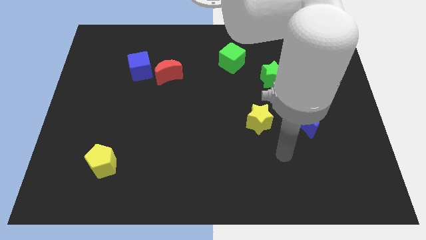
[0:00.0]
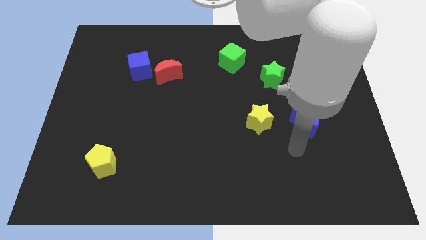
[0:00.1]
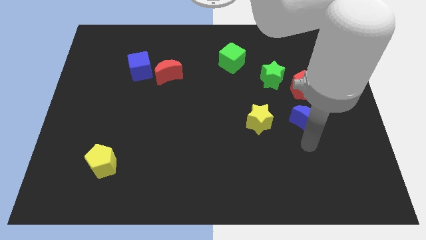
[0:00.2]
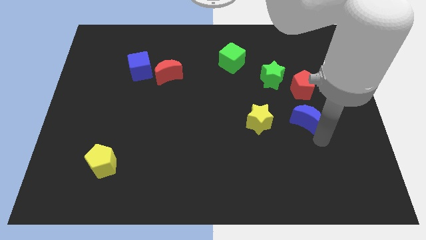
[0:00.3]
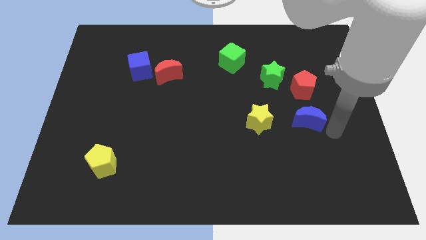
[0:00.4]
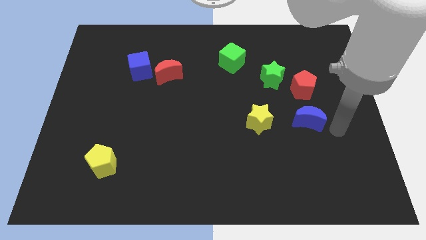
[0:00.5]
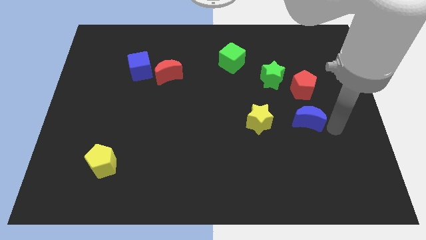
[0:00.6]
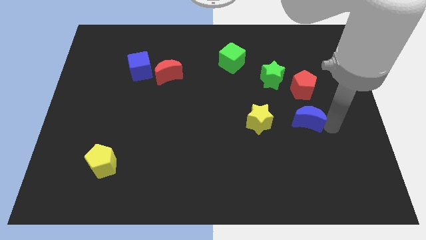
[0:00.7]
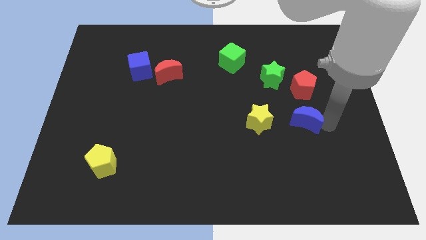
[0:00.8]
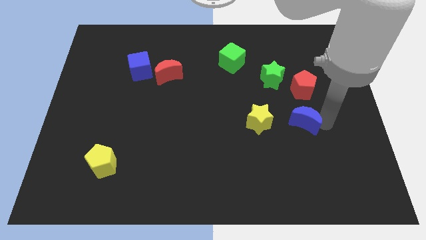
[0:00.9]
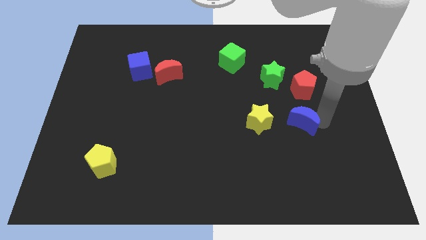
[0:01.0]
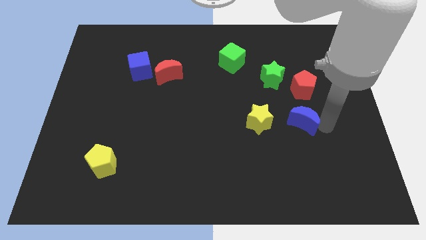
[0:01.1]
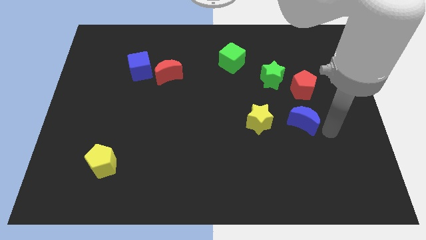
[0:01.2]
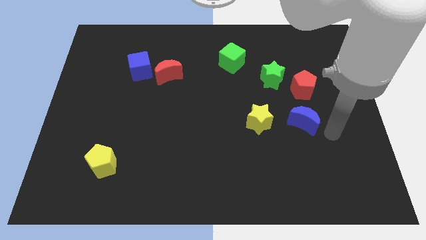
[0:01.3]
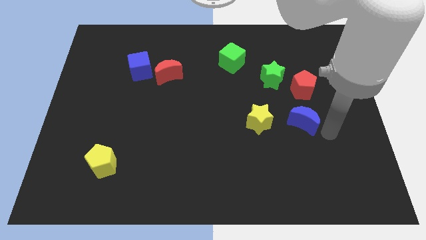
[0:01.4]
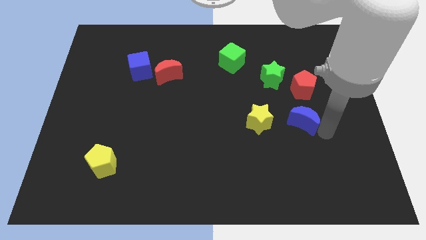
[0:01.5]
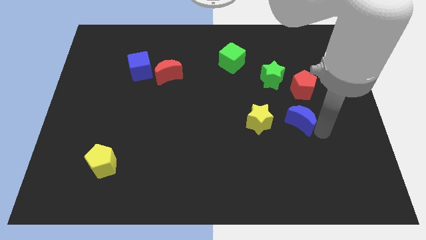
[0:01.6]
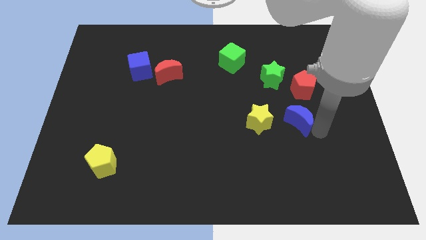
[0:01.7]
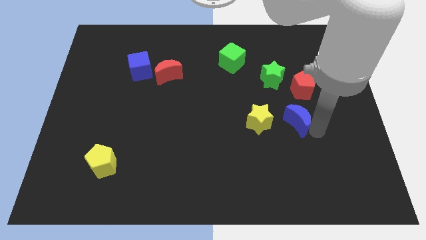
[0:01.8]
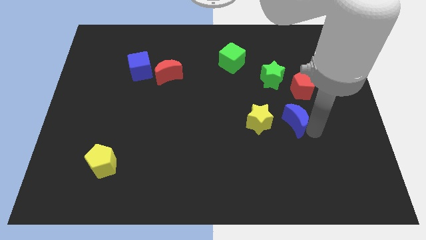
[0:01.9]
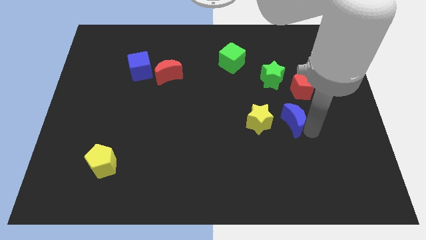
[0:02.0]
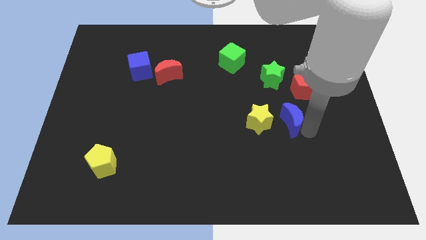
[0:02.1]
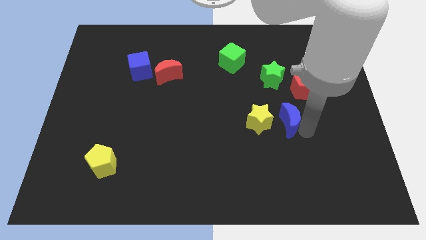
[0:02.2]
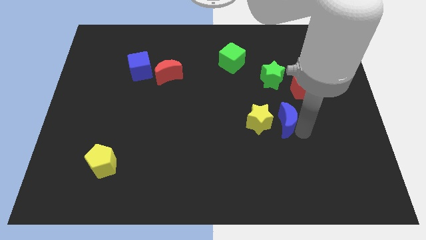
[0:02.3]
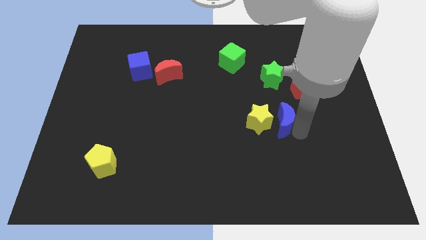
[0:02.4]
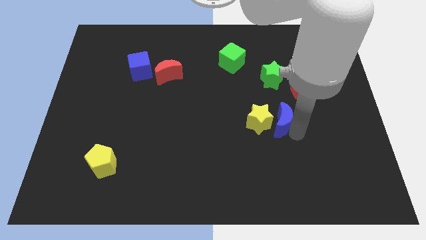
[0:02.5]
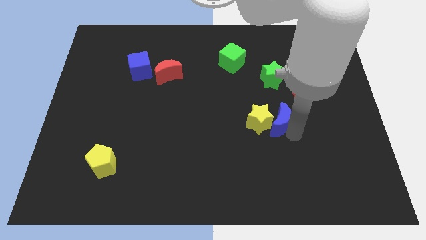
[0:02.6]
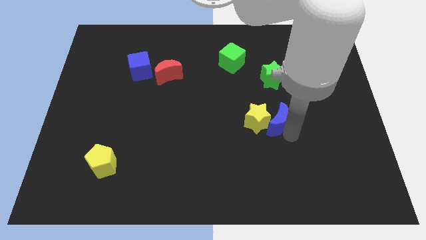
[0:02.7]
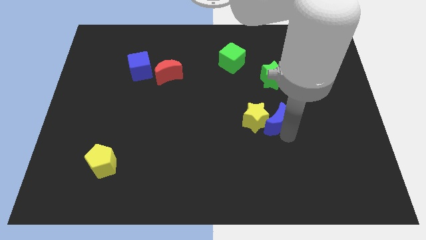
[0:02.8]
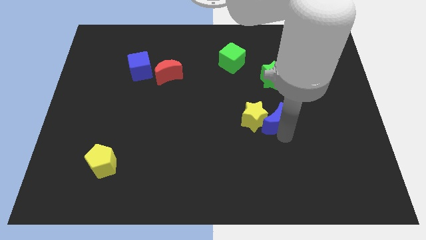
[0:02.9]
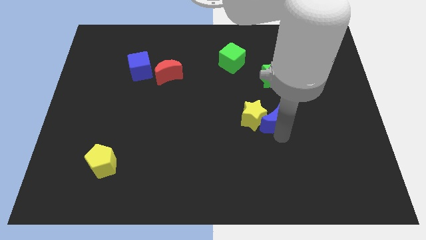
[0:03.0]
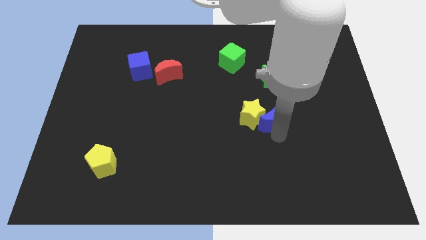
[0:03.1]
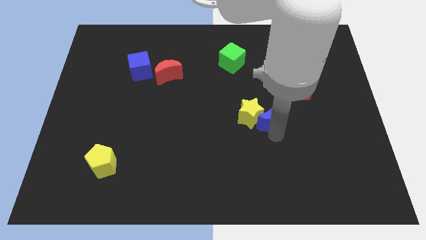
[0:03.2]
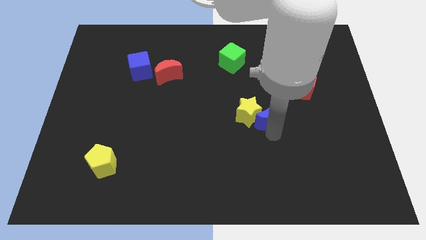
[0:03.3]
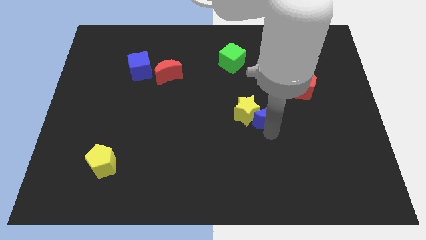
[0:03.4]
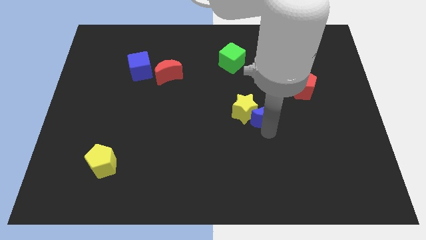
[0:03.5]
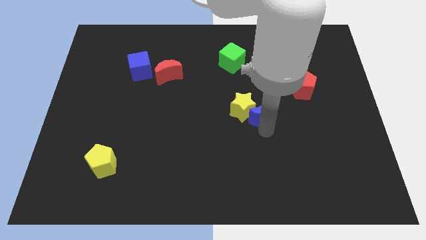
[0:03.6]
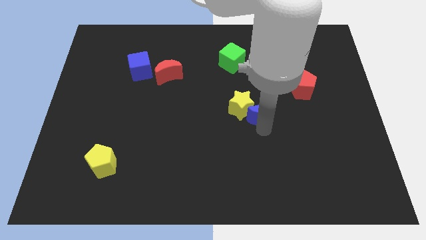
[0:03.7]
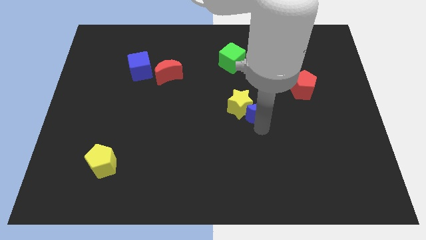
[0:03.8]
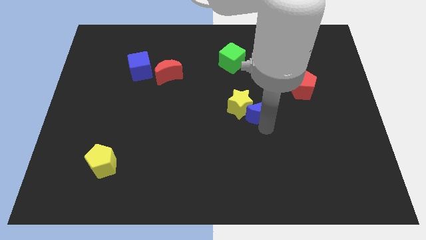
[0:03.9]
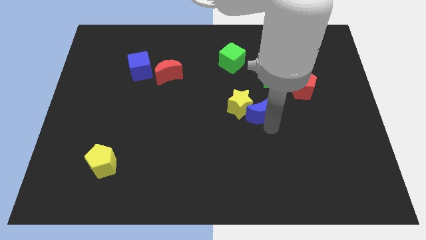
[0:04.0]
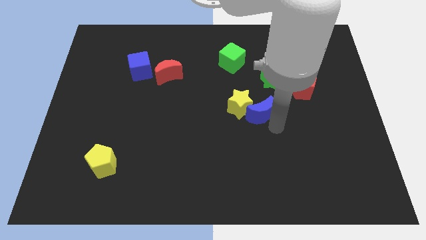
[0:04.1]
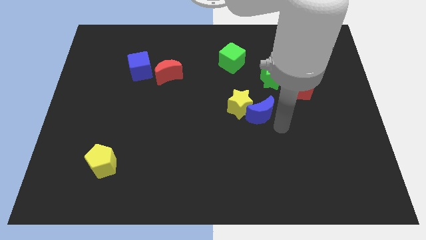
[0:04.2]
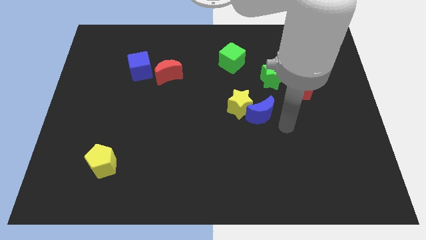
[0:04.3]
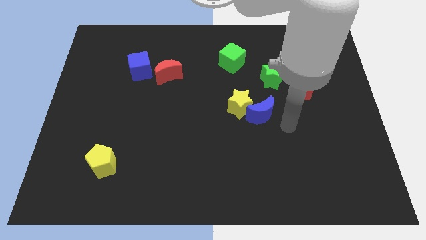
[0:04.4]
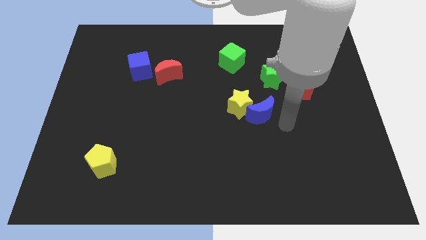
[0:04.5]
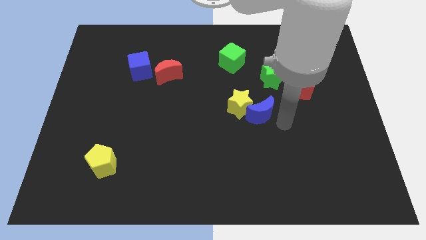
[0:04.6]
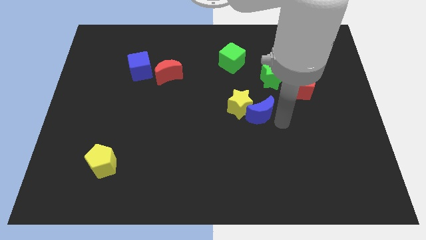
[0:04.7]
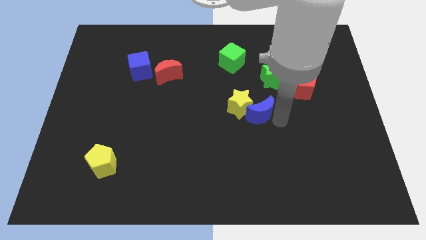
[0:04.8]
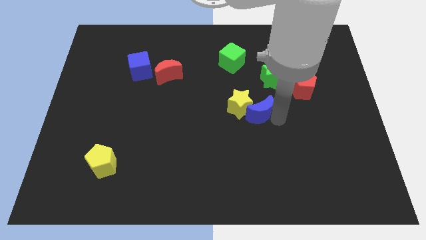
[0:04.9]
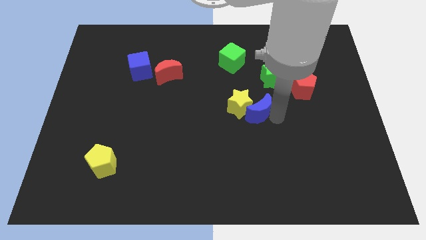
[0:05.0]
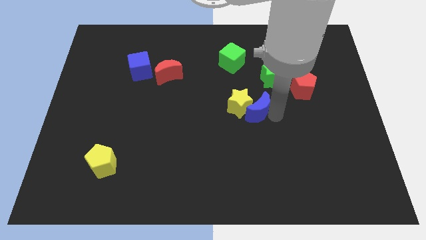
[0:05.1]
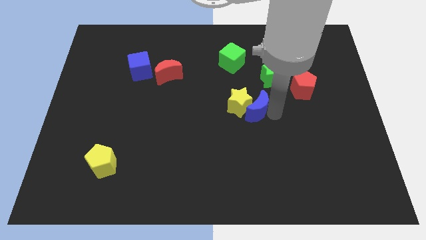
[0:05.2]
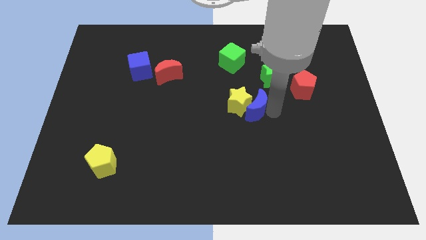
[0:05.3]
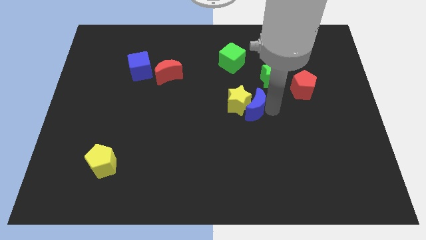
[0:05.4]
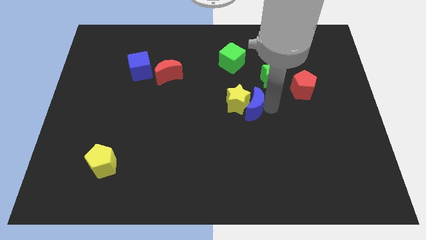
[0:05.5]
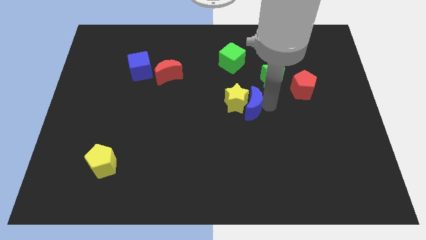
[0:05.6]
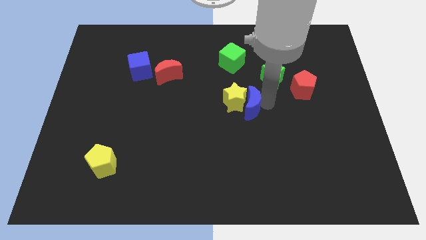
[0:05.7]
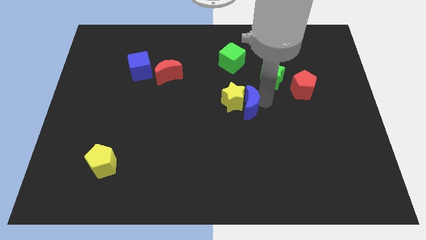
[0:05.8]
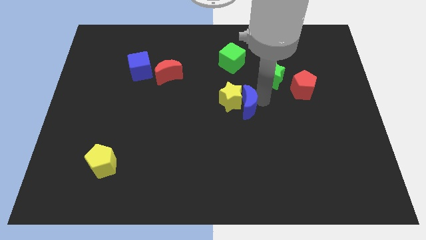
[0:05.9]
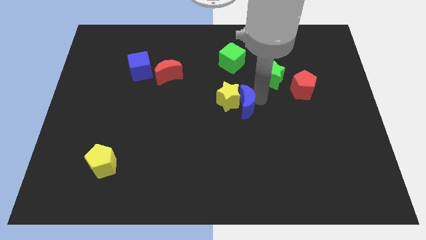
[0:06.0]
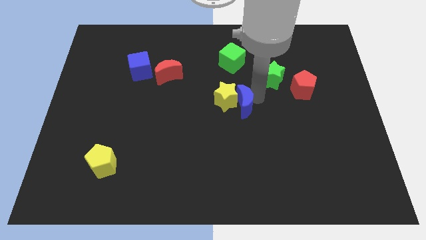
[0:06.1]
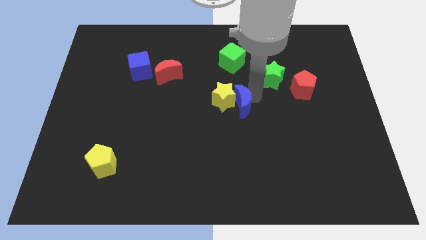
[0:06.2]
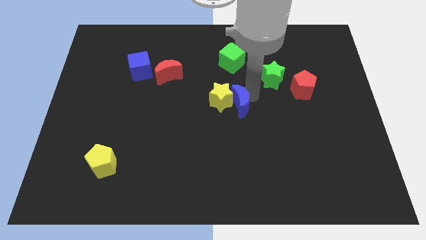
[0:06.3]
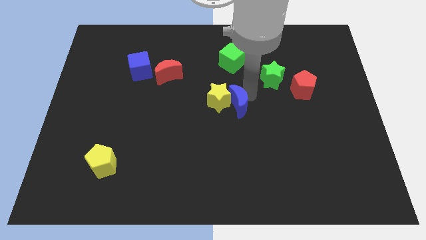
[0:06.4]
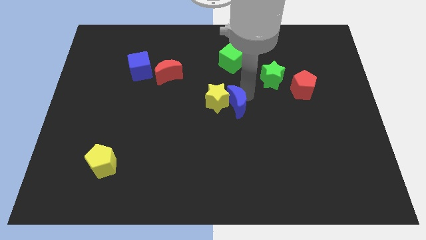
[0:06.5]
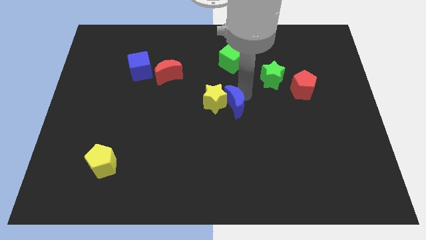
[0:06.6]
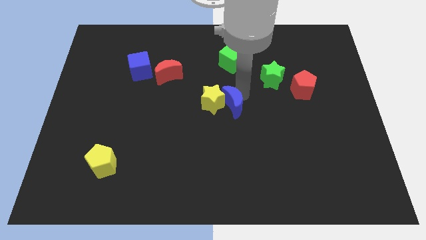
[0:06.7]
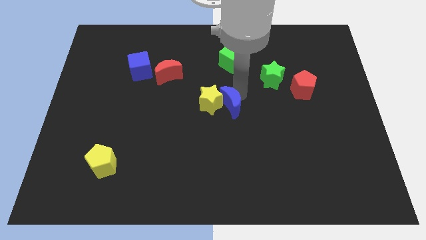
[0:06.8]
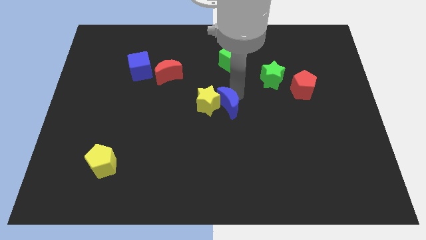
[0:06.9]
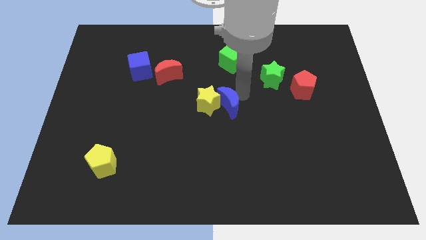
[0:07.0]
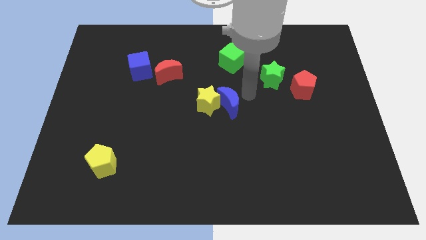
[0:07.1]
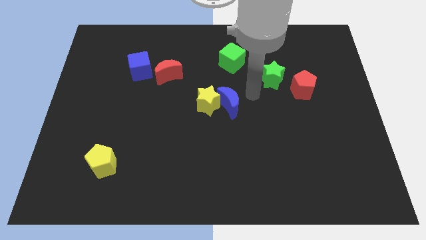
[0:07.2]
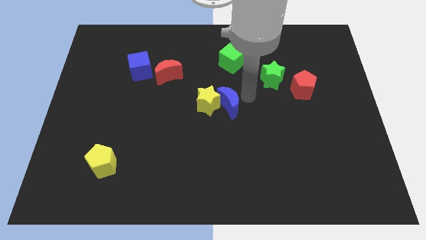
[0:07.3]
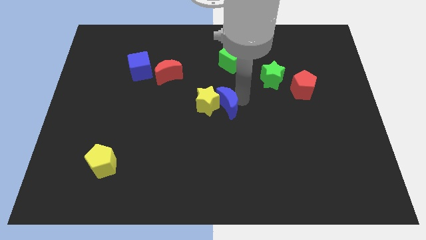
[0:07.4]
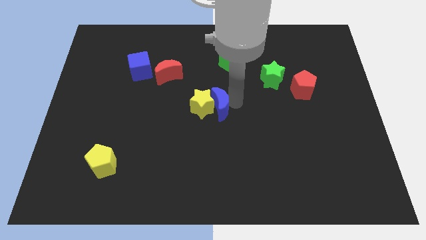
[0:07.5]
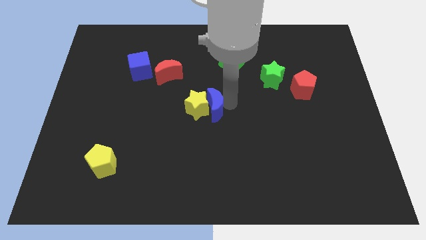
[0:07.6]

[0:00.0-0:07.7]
push the blue moon to the left

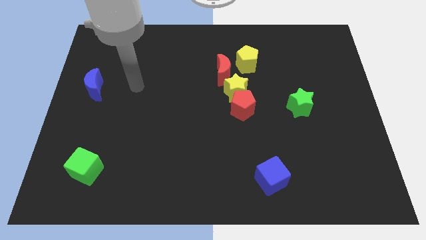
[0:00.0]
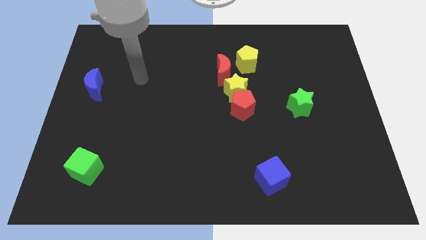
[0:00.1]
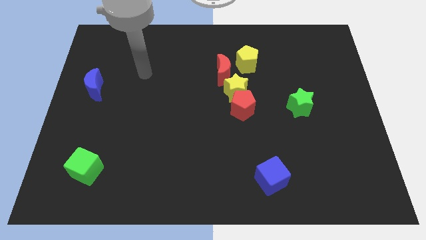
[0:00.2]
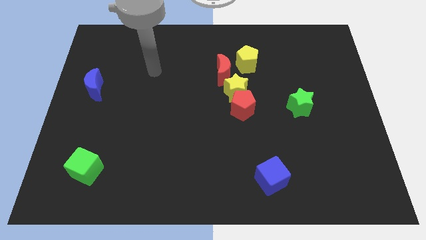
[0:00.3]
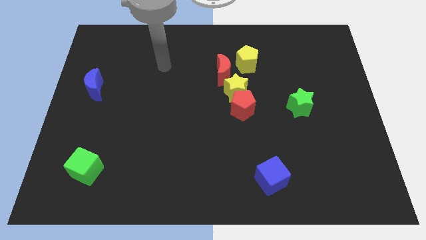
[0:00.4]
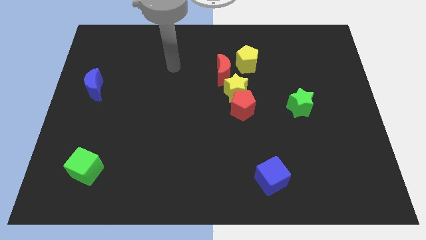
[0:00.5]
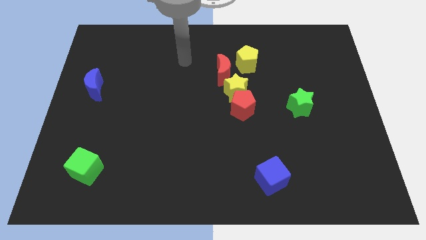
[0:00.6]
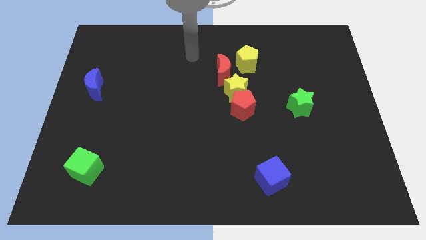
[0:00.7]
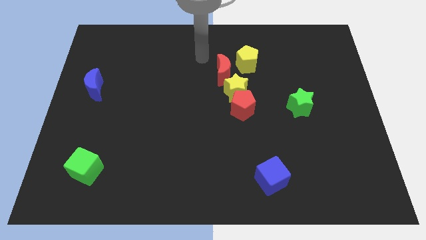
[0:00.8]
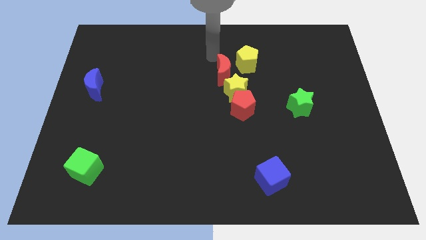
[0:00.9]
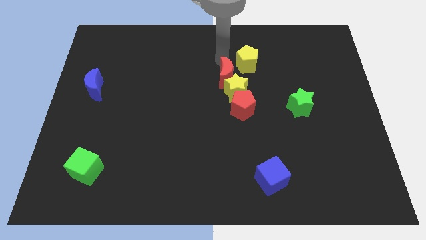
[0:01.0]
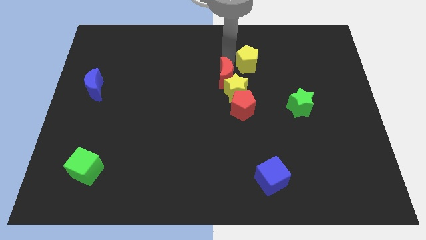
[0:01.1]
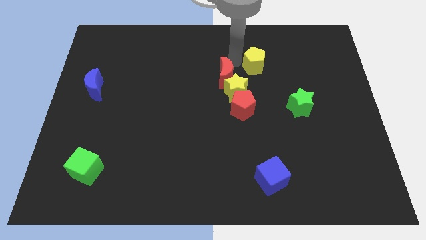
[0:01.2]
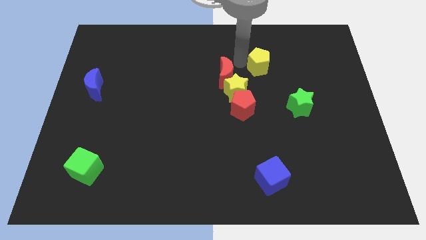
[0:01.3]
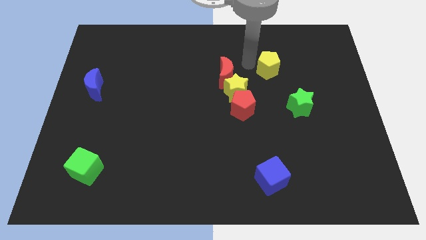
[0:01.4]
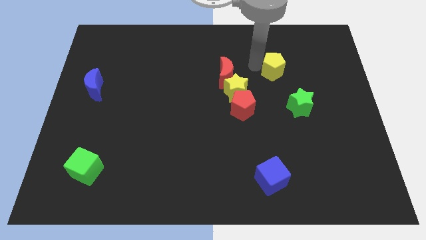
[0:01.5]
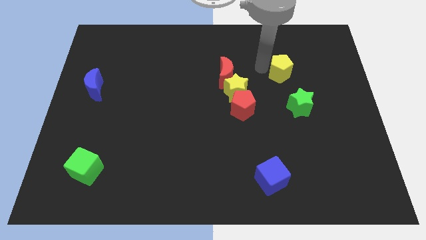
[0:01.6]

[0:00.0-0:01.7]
slightly move the yellow pentagon right
